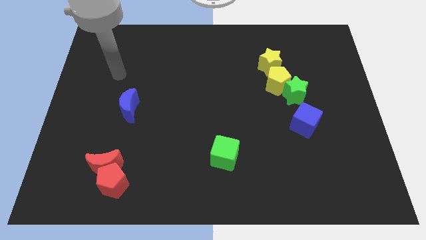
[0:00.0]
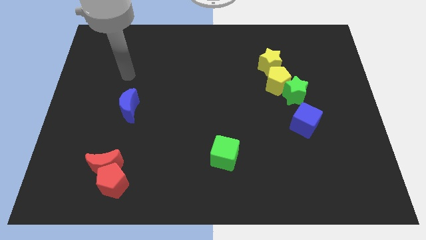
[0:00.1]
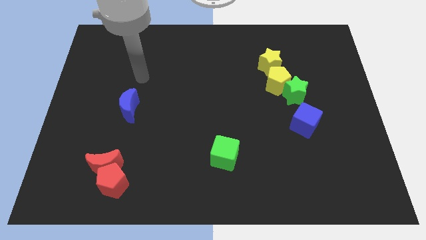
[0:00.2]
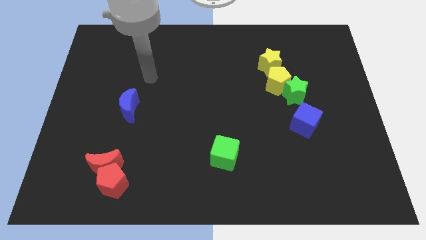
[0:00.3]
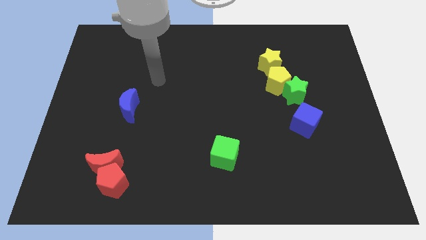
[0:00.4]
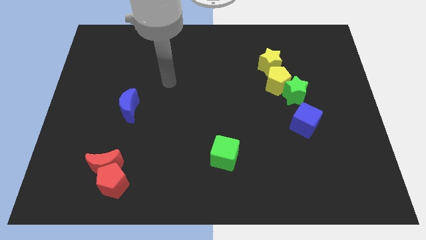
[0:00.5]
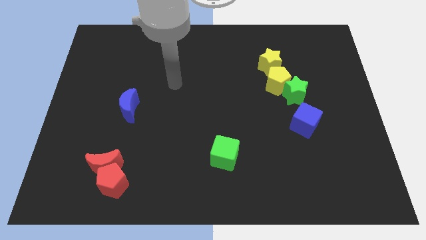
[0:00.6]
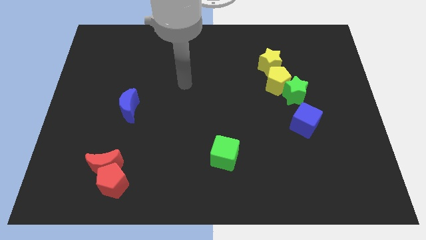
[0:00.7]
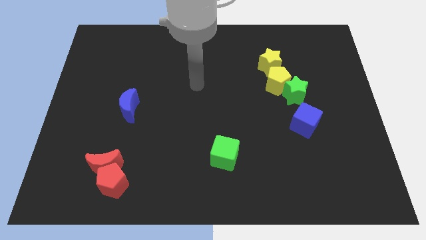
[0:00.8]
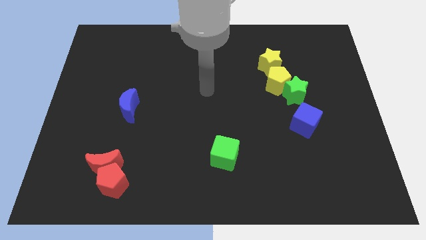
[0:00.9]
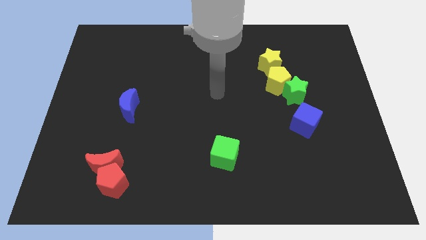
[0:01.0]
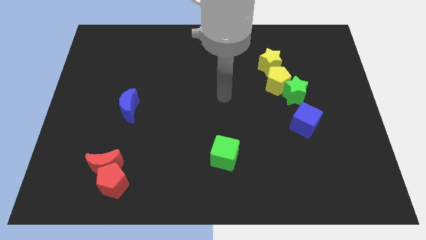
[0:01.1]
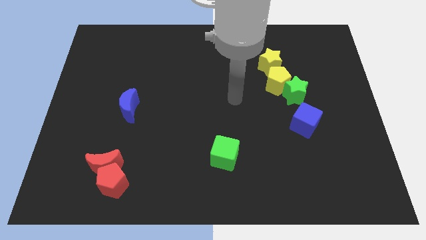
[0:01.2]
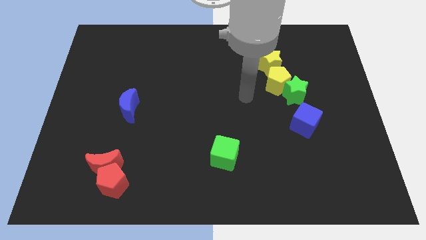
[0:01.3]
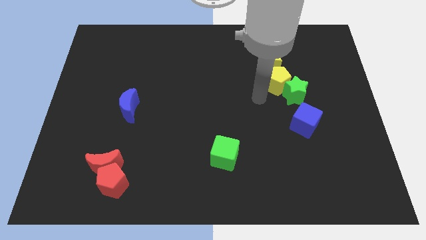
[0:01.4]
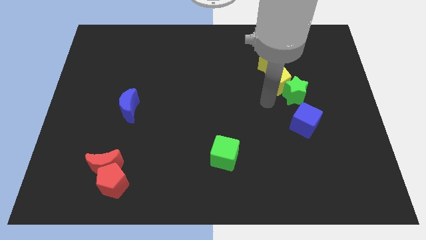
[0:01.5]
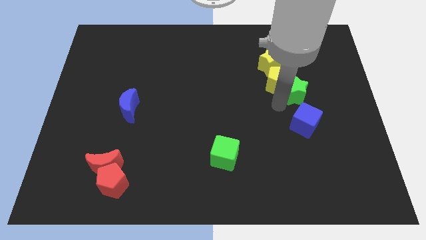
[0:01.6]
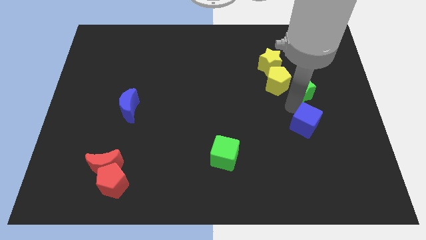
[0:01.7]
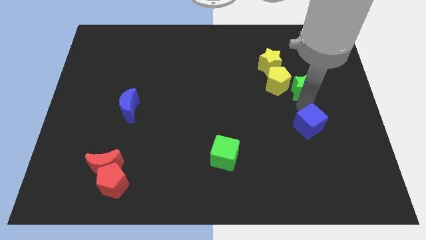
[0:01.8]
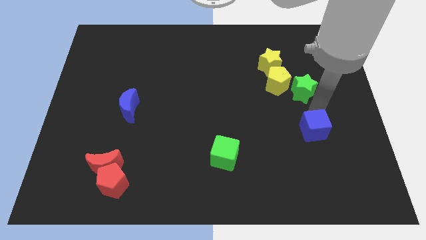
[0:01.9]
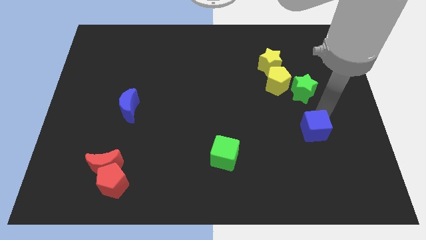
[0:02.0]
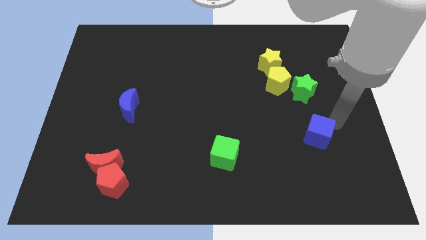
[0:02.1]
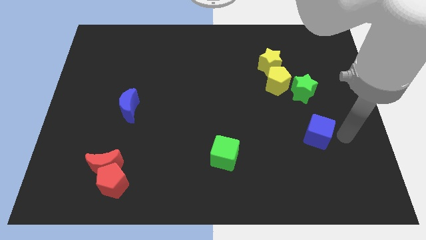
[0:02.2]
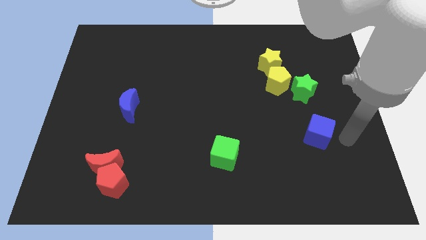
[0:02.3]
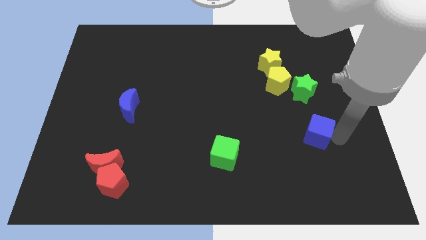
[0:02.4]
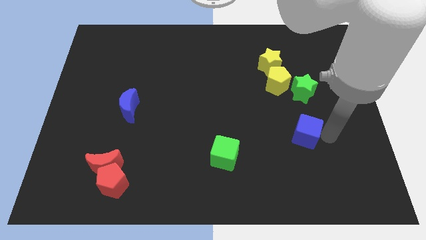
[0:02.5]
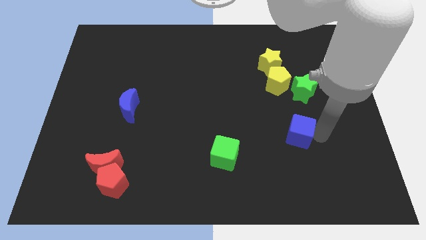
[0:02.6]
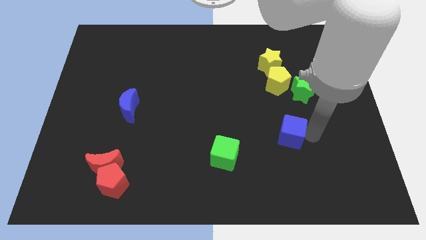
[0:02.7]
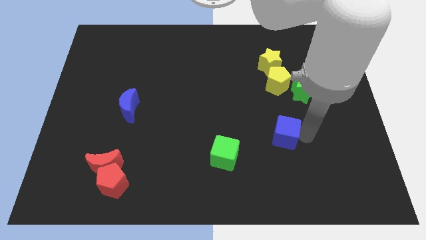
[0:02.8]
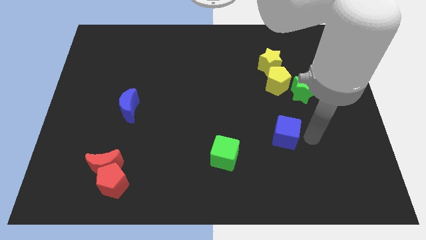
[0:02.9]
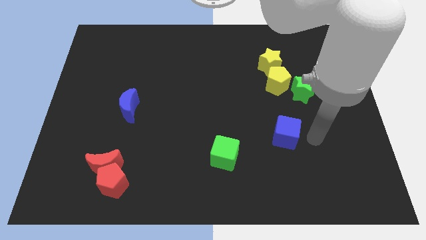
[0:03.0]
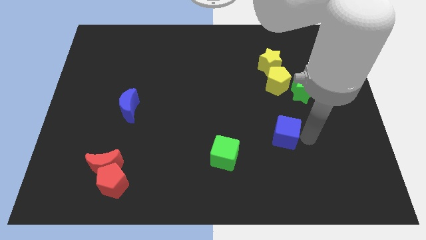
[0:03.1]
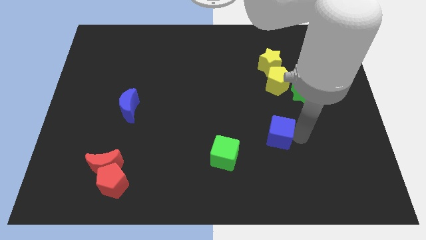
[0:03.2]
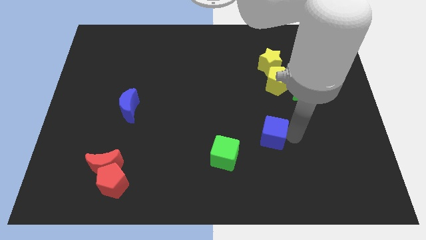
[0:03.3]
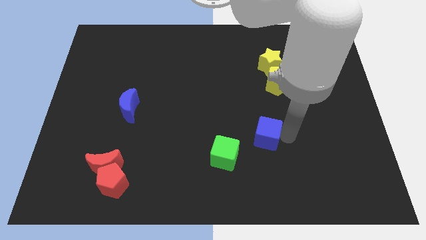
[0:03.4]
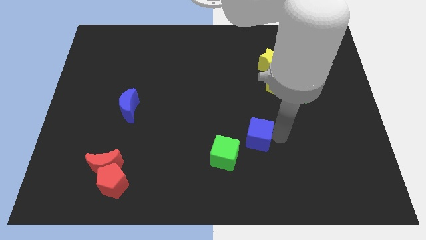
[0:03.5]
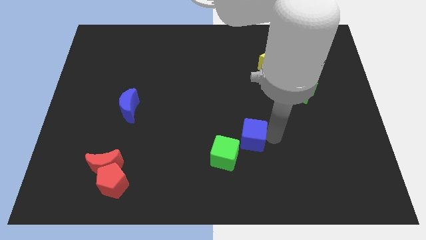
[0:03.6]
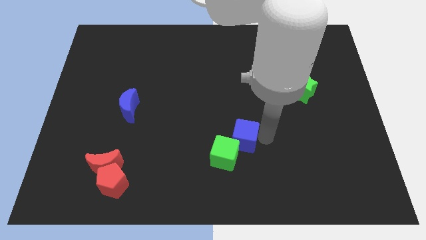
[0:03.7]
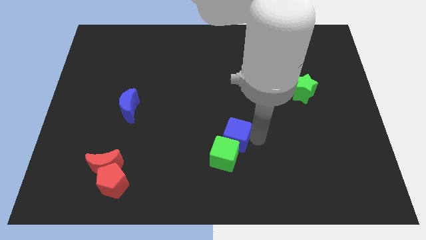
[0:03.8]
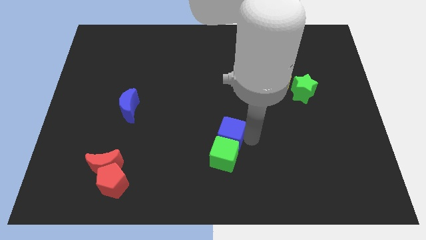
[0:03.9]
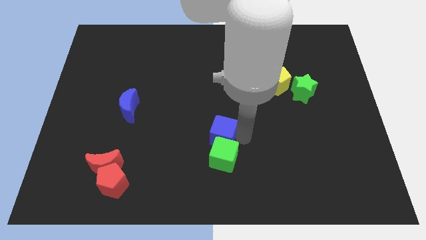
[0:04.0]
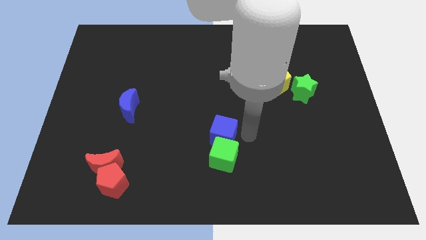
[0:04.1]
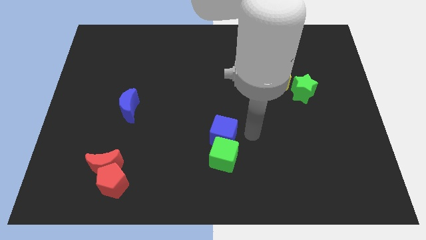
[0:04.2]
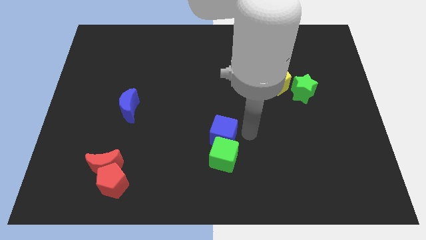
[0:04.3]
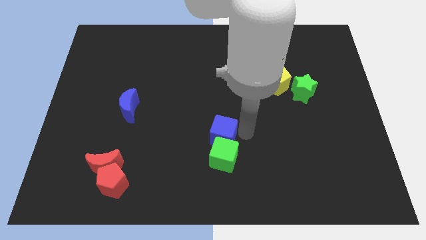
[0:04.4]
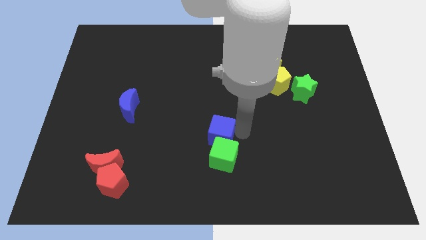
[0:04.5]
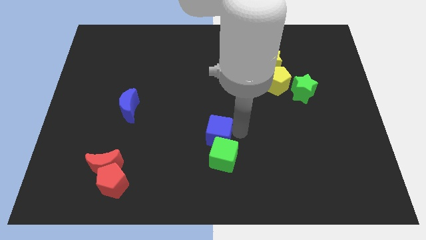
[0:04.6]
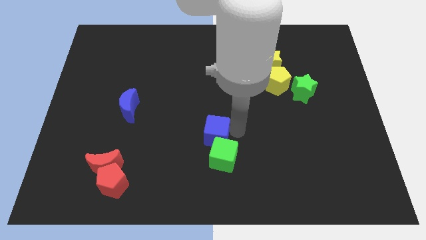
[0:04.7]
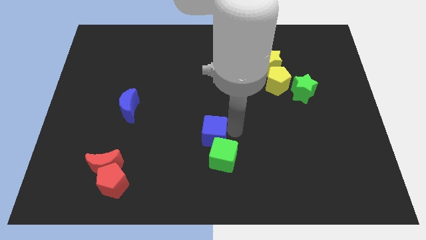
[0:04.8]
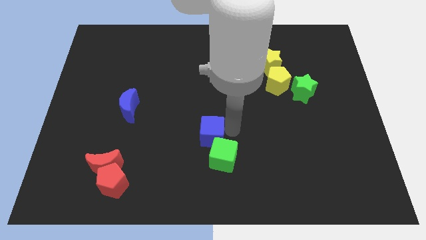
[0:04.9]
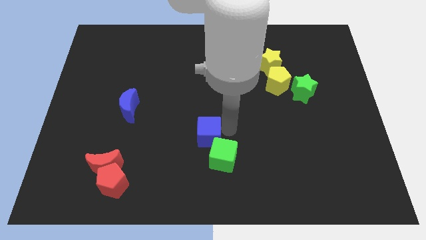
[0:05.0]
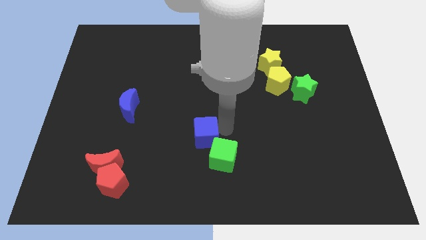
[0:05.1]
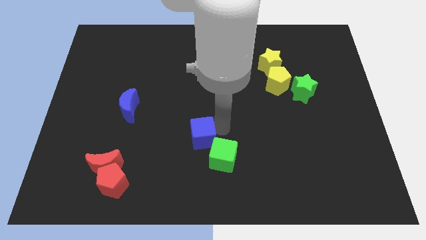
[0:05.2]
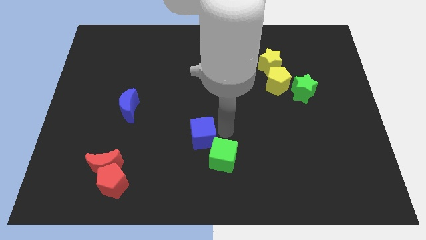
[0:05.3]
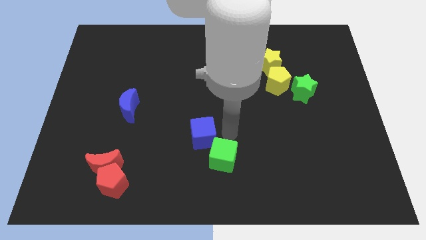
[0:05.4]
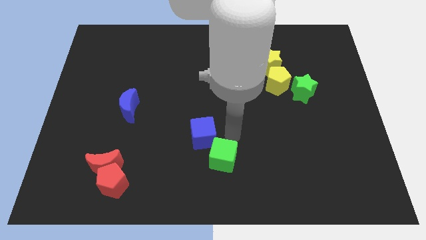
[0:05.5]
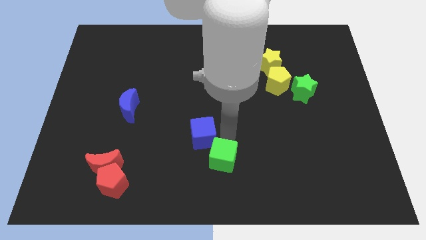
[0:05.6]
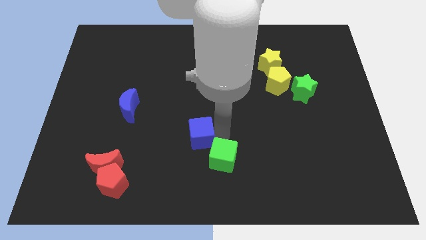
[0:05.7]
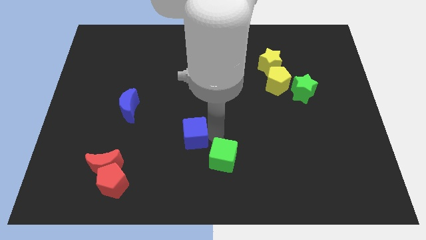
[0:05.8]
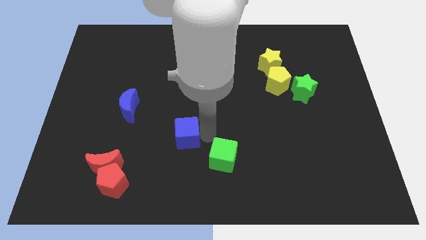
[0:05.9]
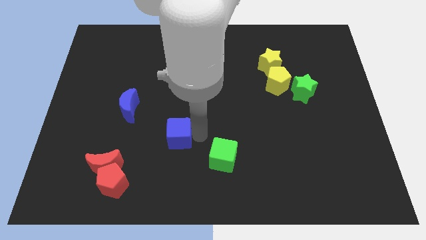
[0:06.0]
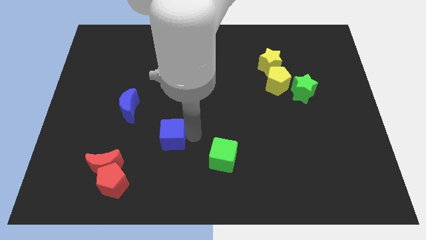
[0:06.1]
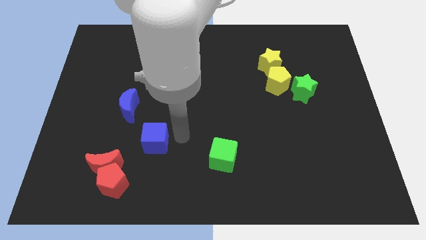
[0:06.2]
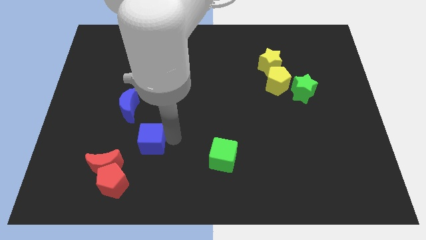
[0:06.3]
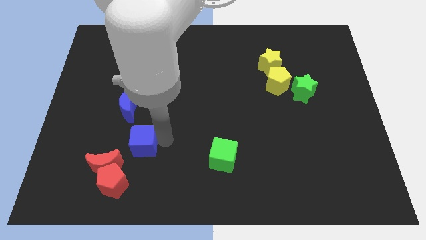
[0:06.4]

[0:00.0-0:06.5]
put the blue cube above the red pentagon

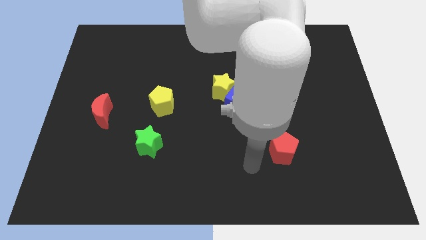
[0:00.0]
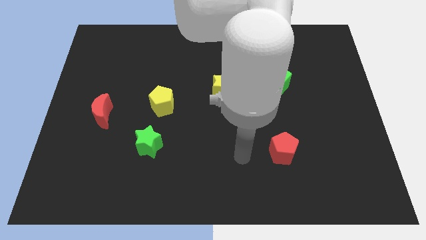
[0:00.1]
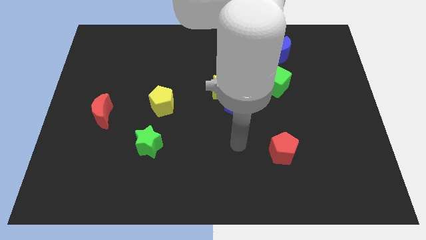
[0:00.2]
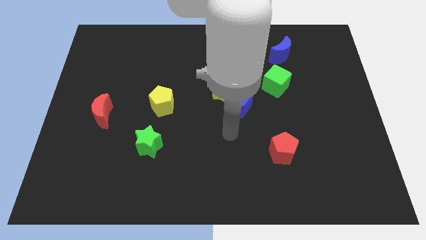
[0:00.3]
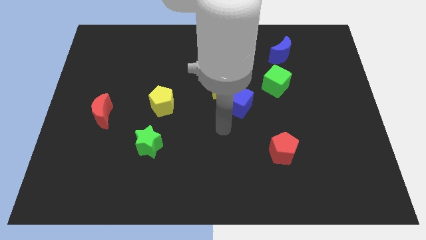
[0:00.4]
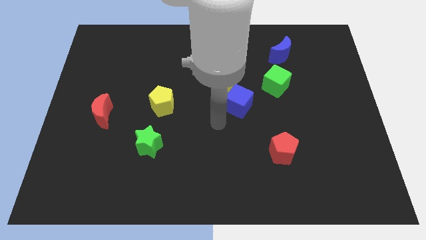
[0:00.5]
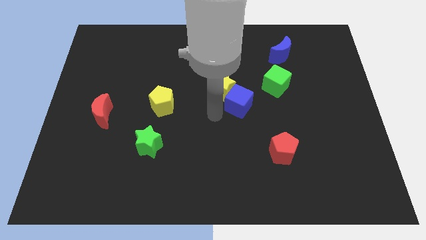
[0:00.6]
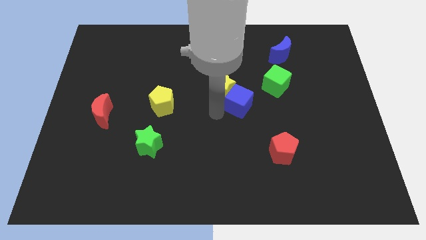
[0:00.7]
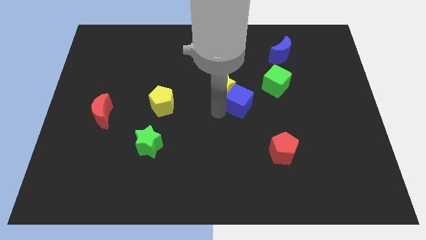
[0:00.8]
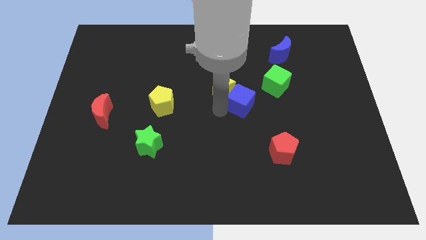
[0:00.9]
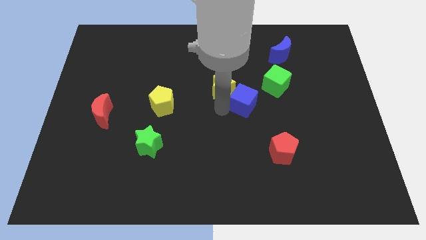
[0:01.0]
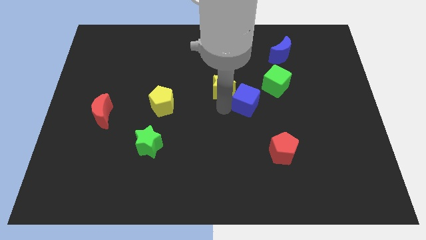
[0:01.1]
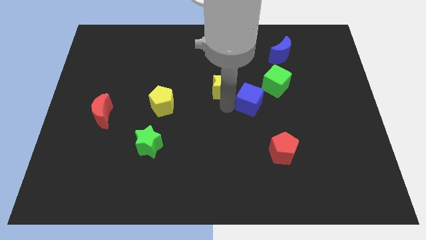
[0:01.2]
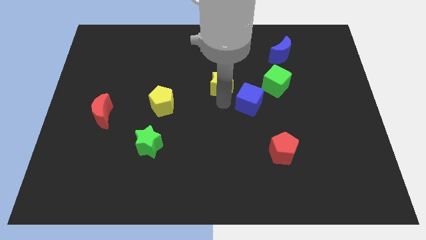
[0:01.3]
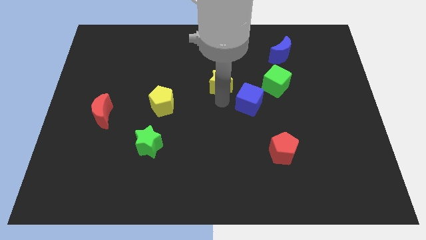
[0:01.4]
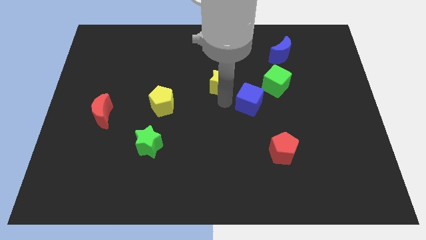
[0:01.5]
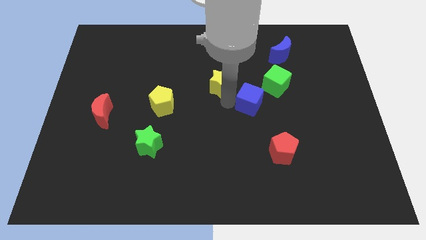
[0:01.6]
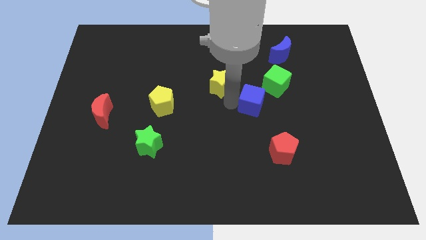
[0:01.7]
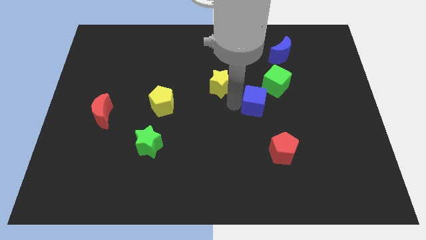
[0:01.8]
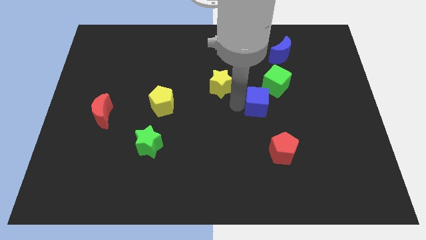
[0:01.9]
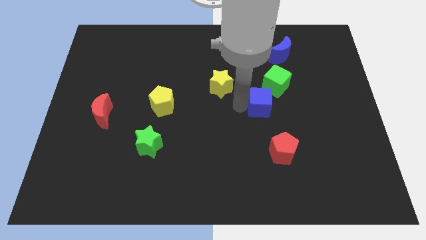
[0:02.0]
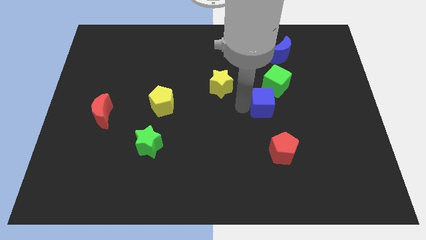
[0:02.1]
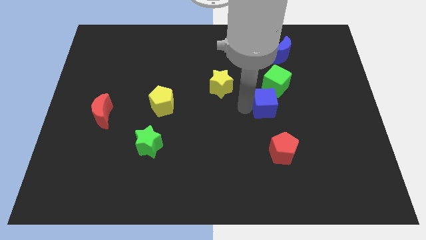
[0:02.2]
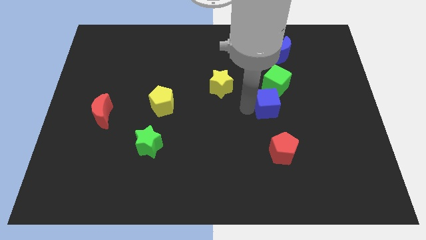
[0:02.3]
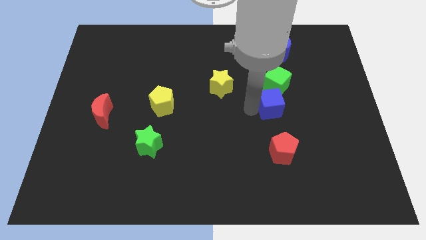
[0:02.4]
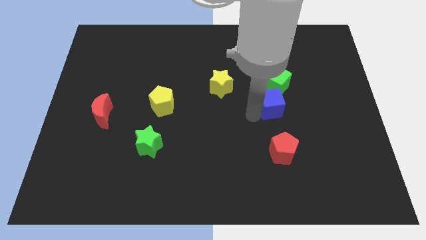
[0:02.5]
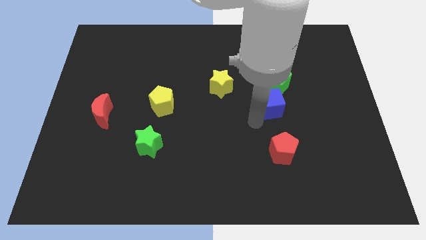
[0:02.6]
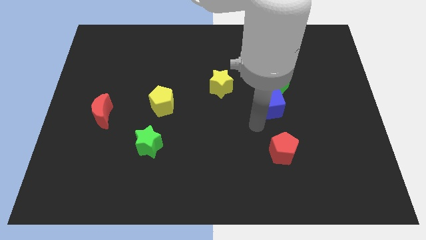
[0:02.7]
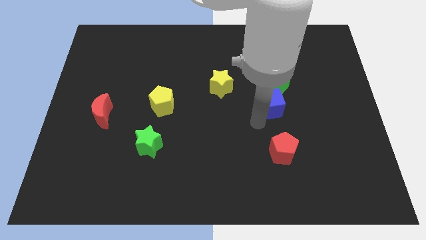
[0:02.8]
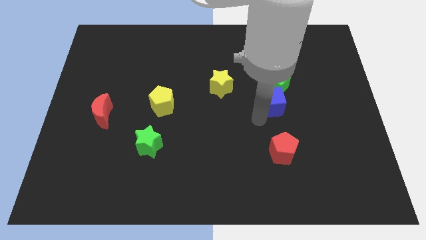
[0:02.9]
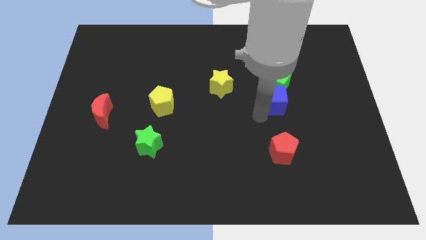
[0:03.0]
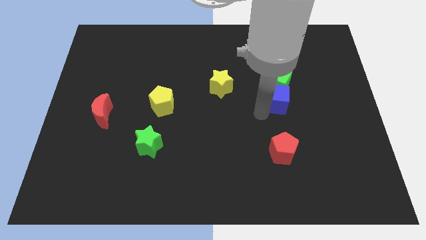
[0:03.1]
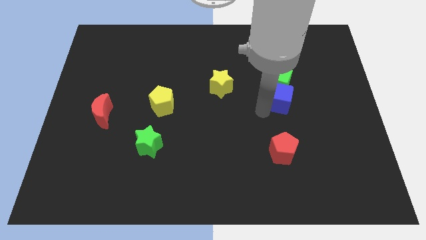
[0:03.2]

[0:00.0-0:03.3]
put the blue cube to the bottom of the blue moon
